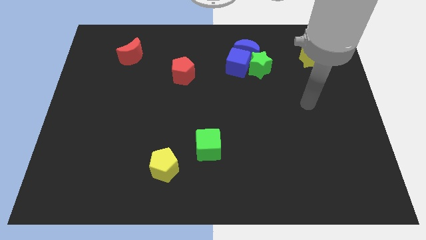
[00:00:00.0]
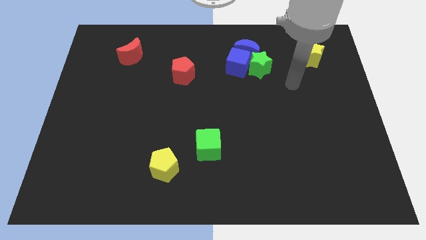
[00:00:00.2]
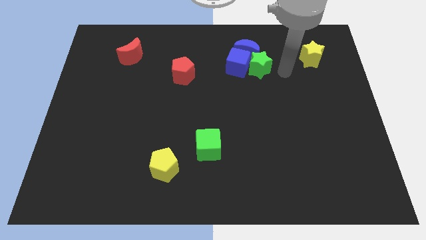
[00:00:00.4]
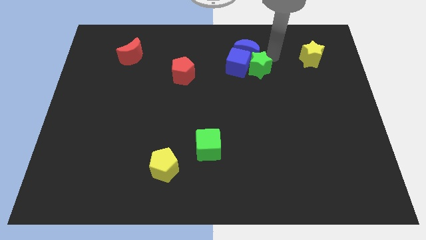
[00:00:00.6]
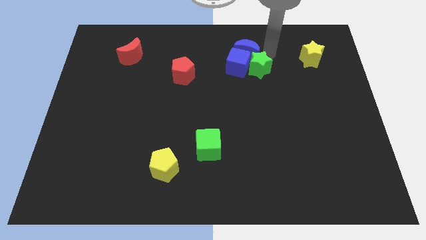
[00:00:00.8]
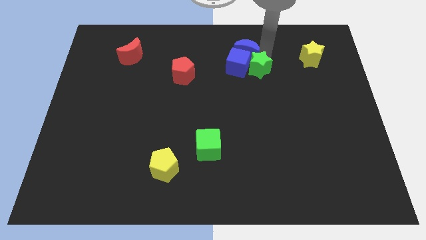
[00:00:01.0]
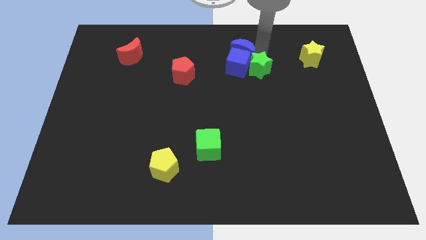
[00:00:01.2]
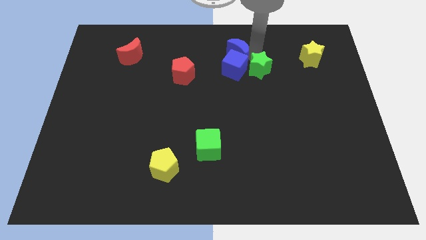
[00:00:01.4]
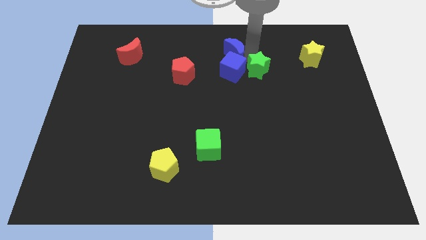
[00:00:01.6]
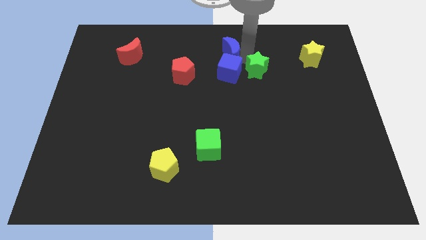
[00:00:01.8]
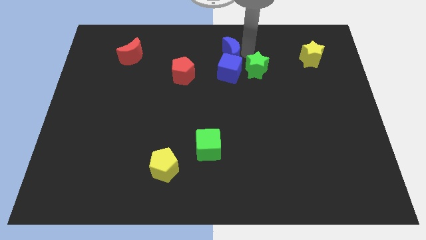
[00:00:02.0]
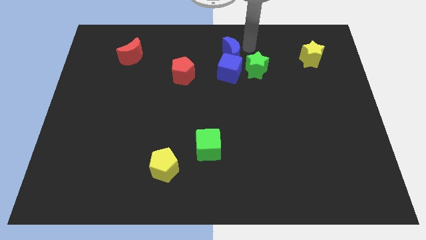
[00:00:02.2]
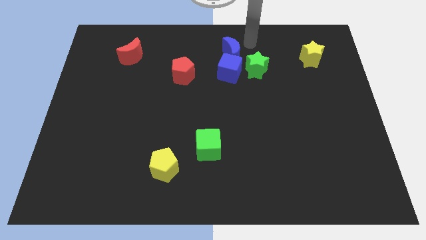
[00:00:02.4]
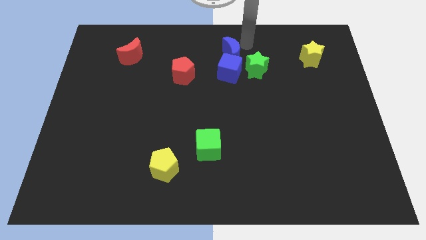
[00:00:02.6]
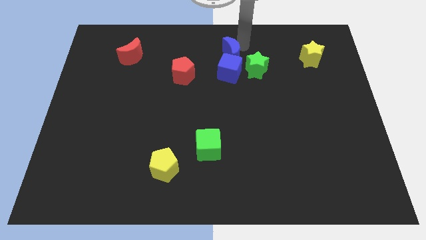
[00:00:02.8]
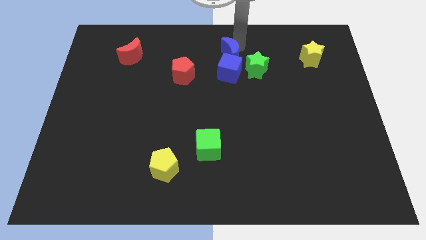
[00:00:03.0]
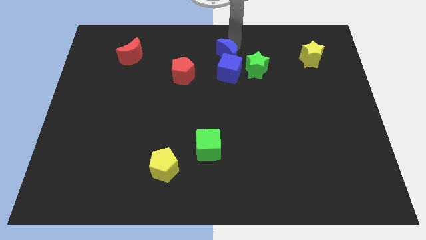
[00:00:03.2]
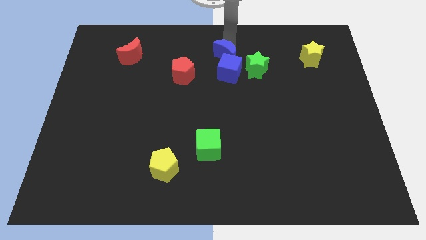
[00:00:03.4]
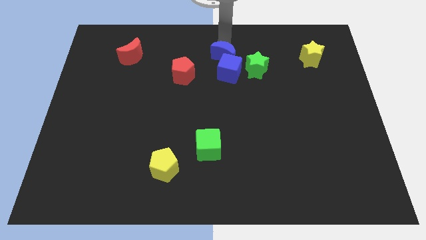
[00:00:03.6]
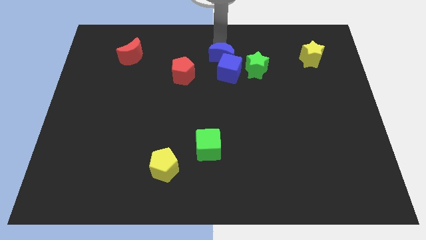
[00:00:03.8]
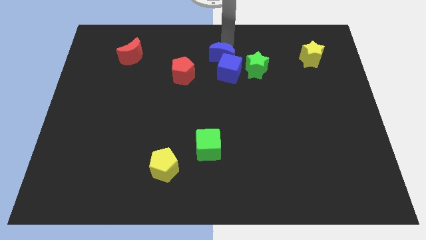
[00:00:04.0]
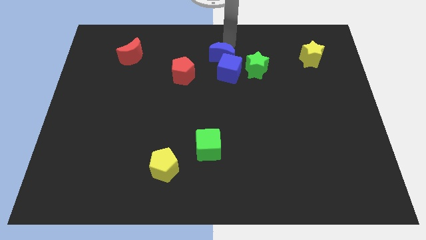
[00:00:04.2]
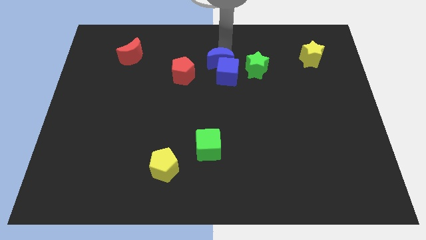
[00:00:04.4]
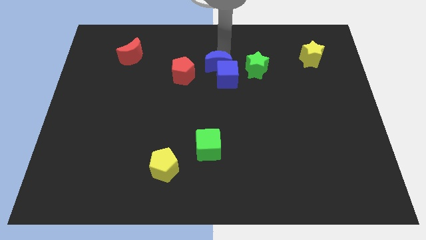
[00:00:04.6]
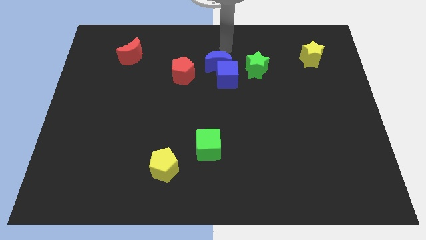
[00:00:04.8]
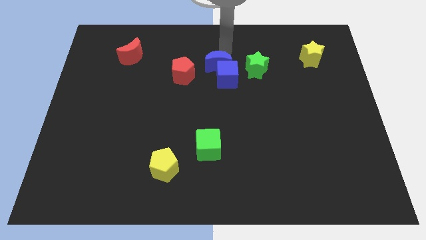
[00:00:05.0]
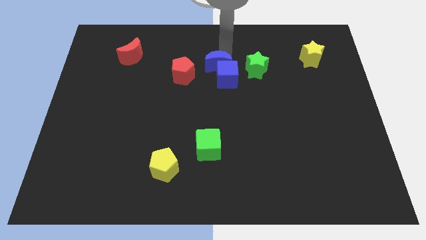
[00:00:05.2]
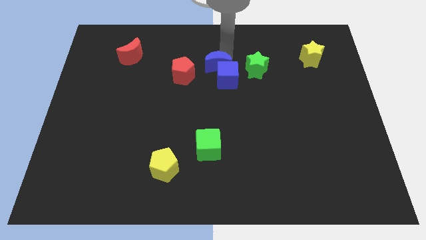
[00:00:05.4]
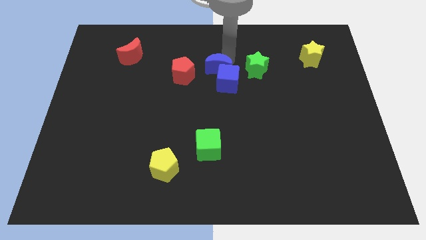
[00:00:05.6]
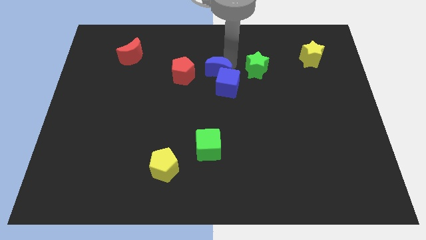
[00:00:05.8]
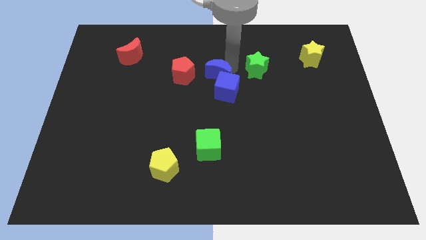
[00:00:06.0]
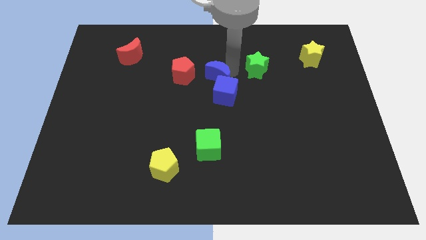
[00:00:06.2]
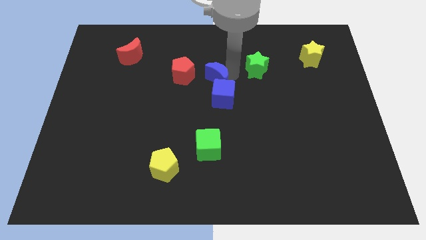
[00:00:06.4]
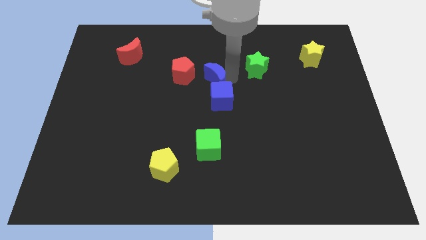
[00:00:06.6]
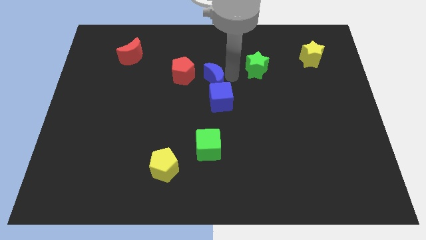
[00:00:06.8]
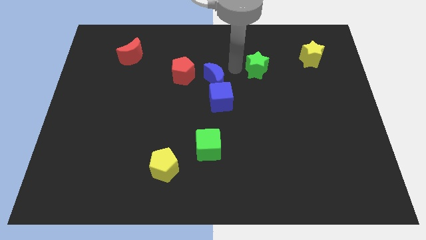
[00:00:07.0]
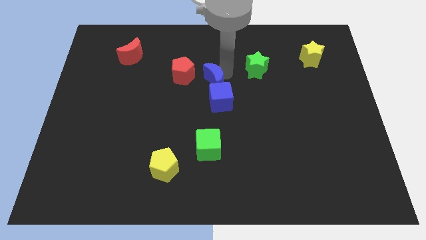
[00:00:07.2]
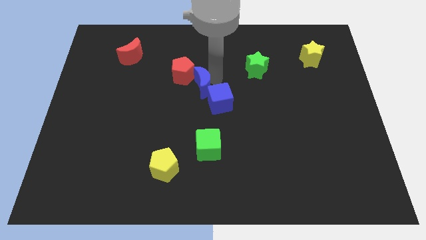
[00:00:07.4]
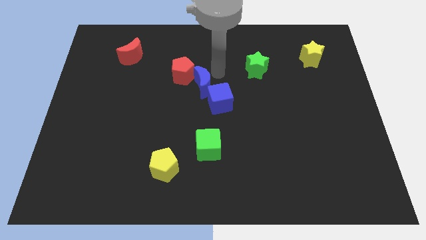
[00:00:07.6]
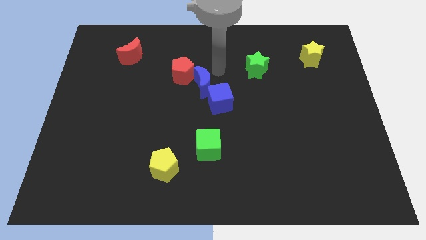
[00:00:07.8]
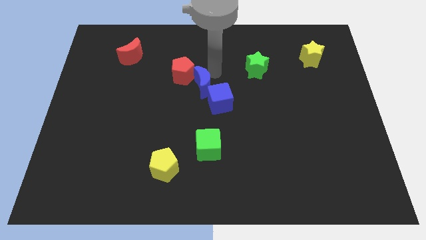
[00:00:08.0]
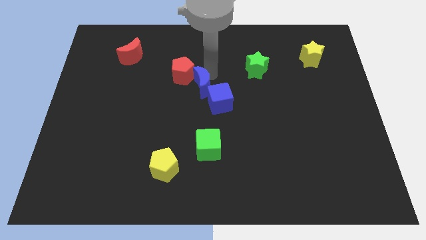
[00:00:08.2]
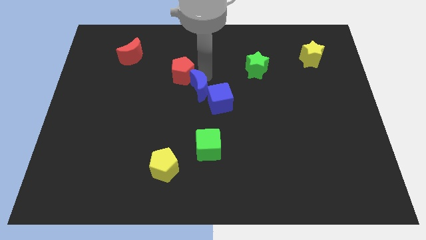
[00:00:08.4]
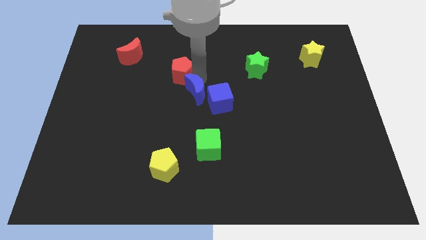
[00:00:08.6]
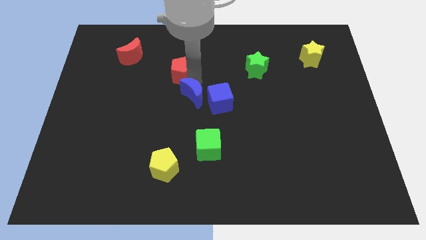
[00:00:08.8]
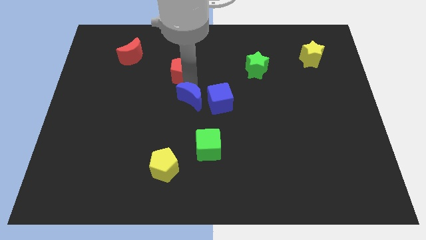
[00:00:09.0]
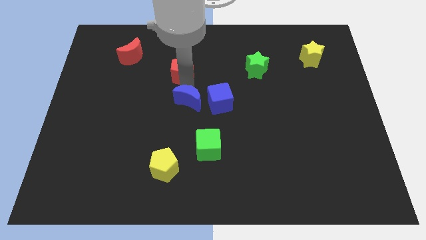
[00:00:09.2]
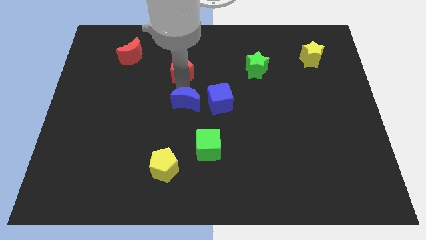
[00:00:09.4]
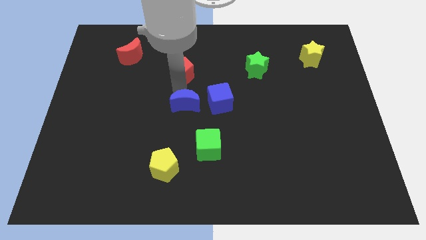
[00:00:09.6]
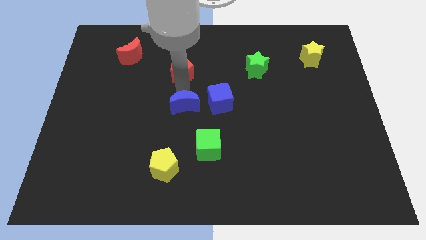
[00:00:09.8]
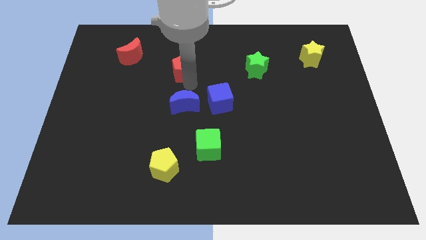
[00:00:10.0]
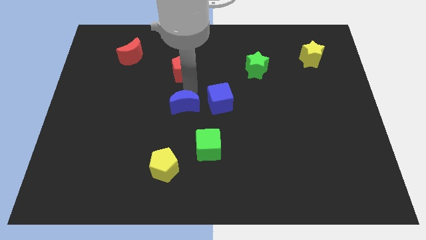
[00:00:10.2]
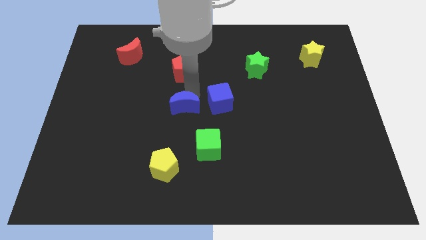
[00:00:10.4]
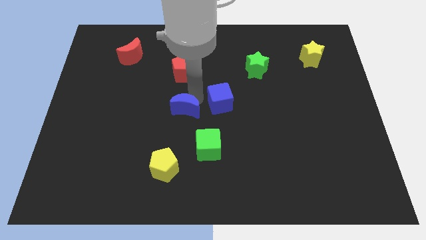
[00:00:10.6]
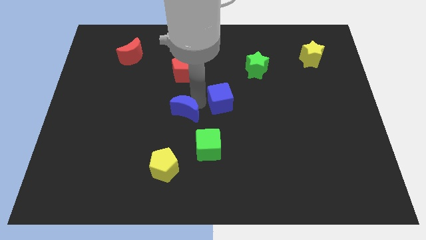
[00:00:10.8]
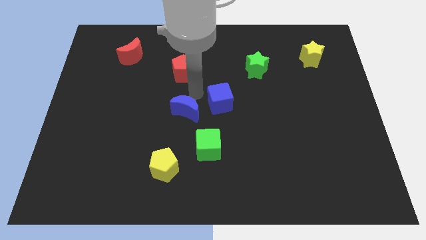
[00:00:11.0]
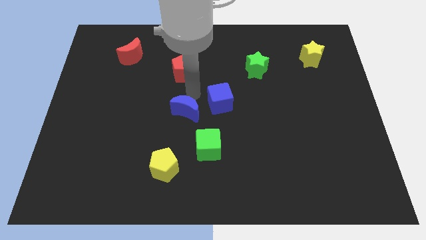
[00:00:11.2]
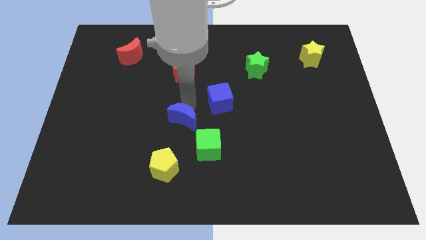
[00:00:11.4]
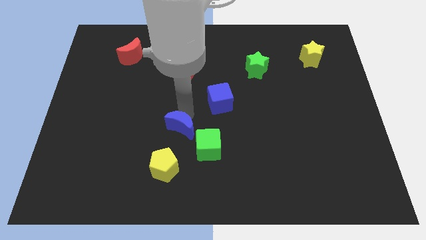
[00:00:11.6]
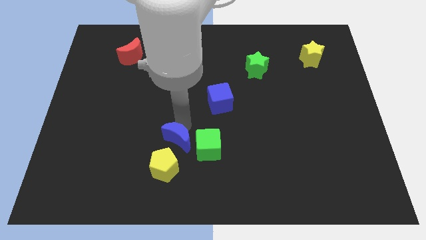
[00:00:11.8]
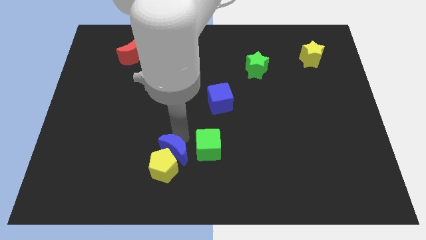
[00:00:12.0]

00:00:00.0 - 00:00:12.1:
move the blue moon next to the yellow pentagon

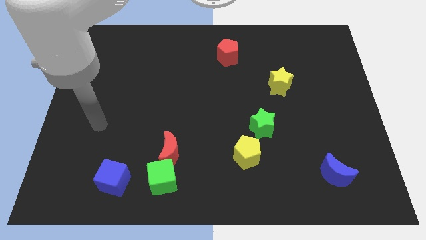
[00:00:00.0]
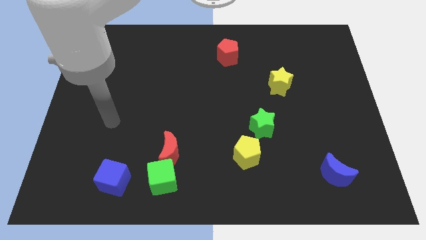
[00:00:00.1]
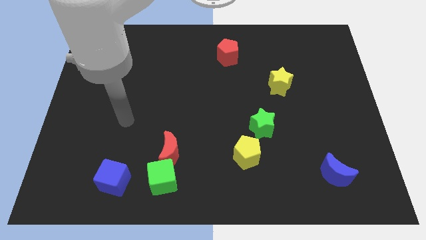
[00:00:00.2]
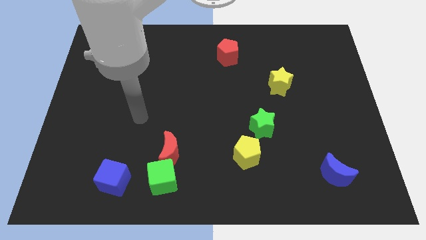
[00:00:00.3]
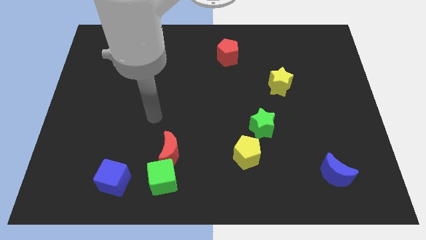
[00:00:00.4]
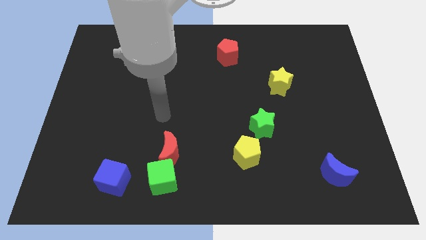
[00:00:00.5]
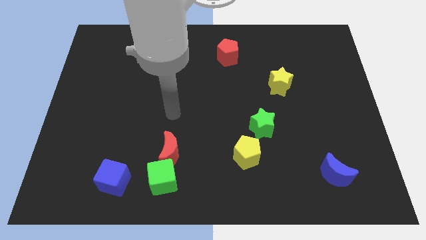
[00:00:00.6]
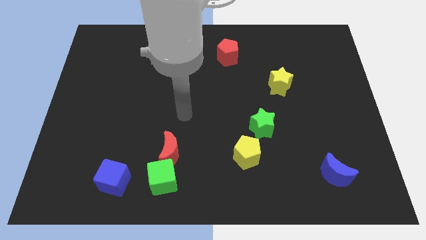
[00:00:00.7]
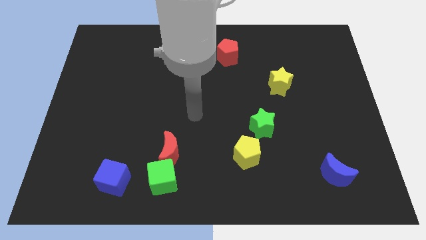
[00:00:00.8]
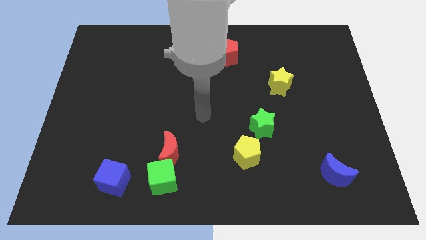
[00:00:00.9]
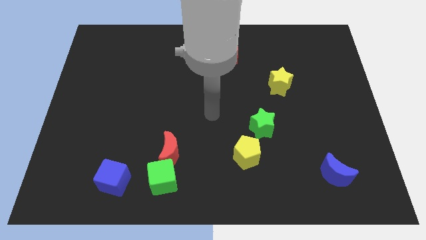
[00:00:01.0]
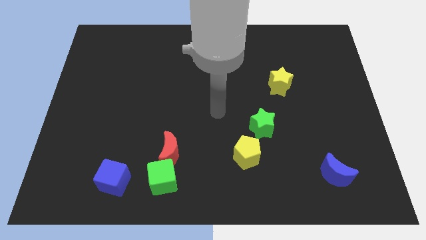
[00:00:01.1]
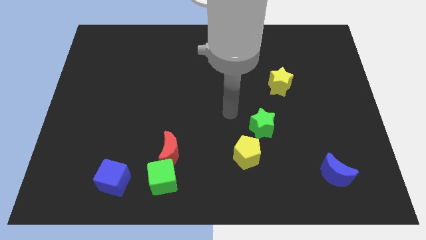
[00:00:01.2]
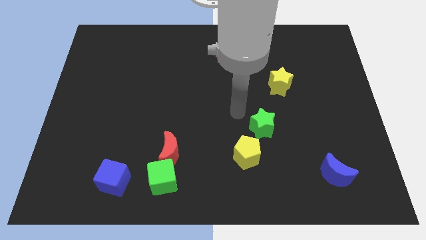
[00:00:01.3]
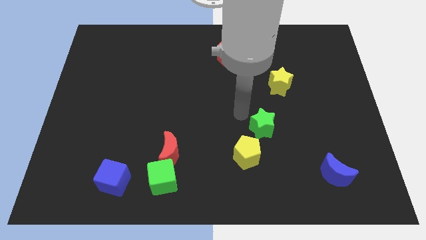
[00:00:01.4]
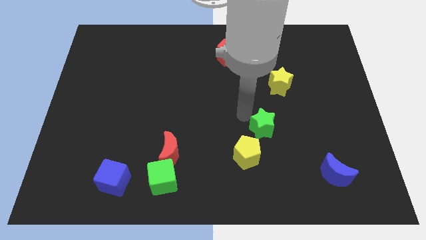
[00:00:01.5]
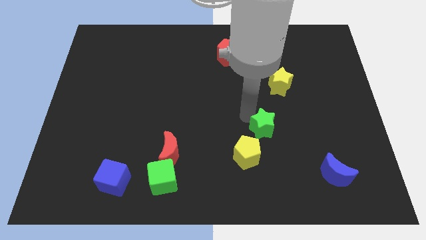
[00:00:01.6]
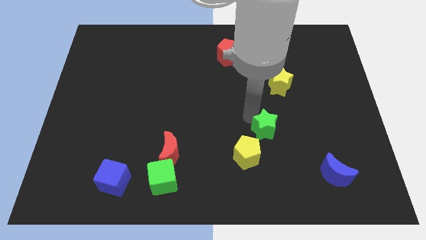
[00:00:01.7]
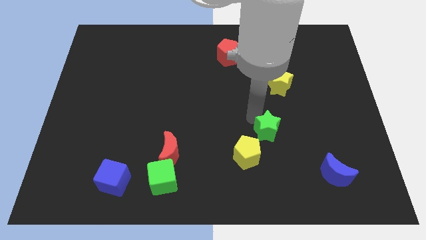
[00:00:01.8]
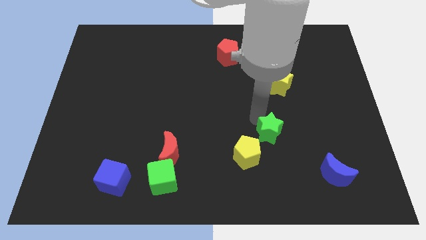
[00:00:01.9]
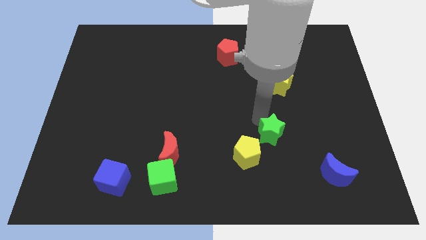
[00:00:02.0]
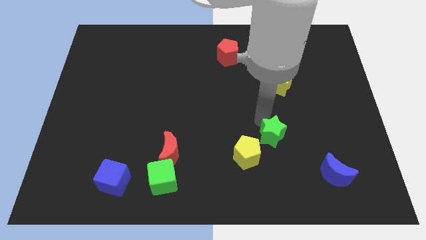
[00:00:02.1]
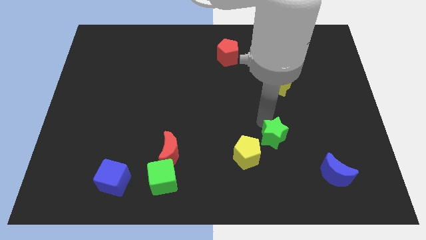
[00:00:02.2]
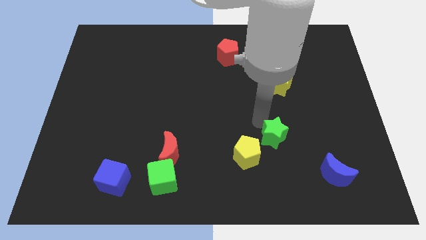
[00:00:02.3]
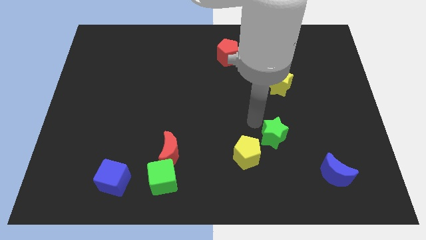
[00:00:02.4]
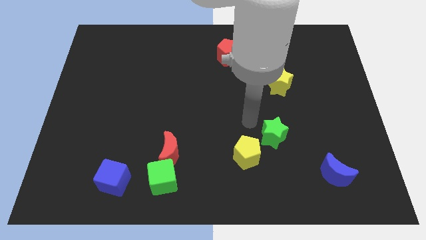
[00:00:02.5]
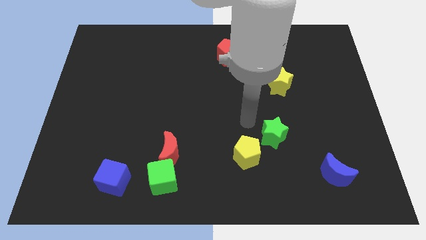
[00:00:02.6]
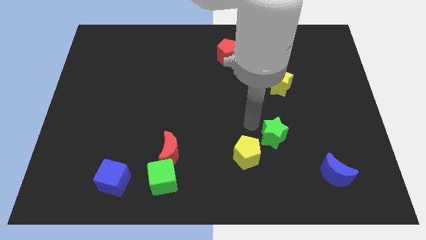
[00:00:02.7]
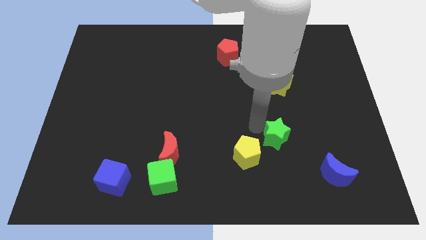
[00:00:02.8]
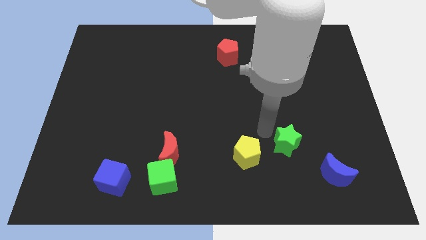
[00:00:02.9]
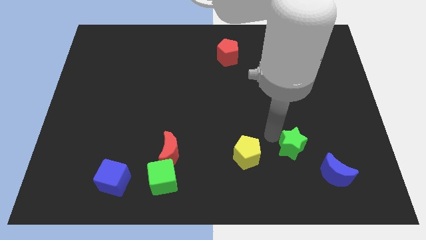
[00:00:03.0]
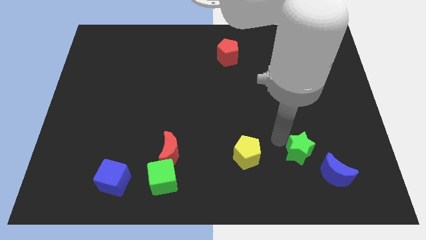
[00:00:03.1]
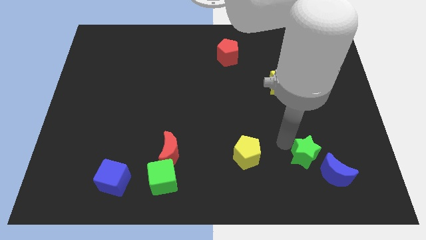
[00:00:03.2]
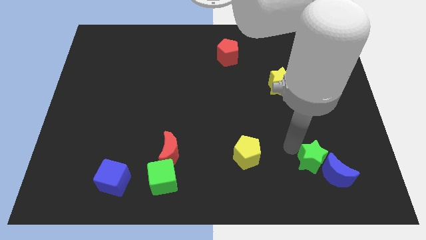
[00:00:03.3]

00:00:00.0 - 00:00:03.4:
slide the green star to the blue moon
